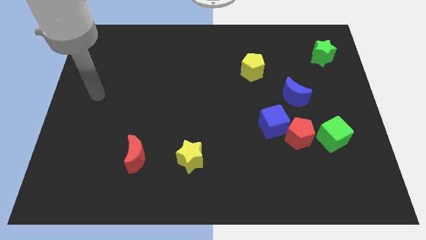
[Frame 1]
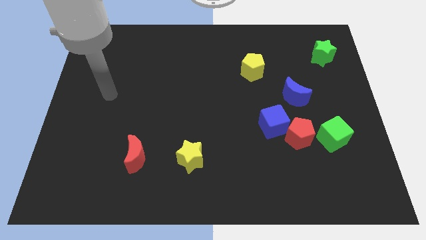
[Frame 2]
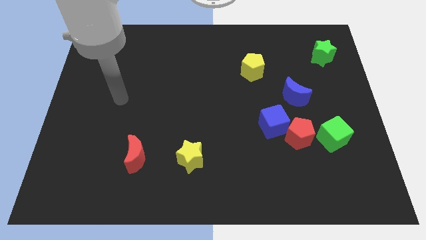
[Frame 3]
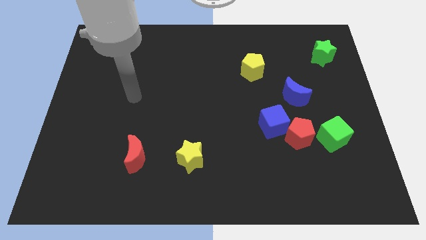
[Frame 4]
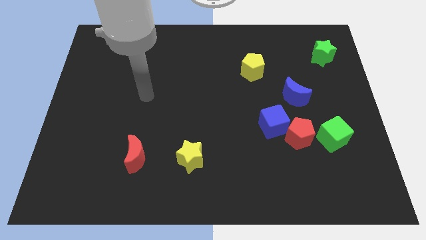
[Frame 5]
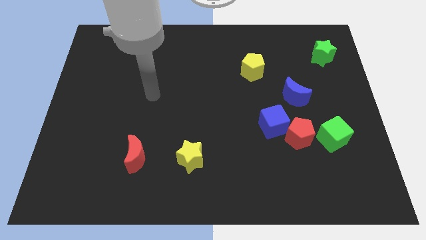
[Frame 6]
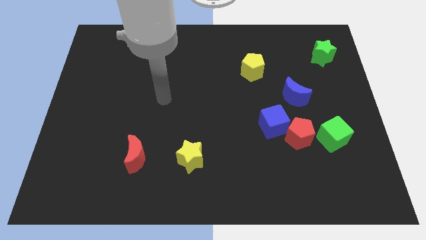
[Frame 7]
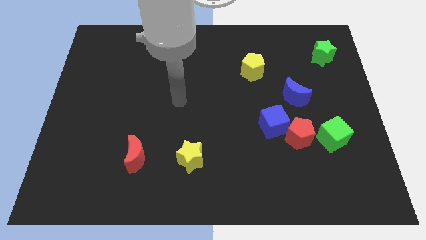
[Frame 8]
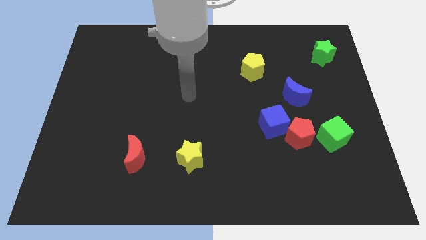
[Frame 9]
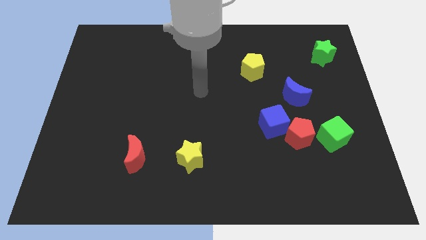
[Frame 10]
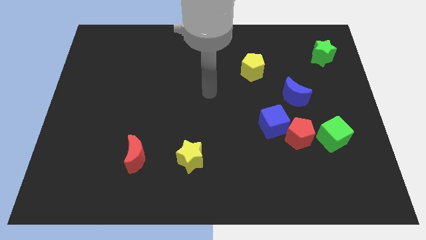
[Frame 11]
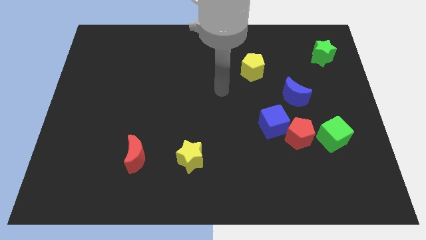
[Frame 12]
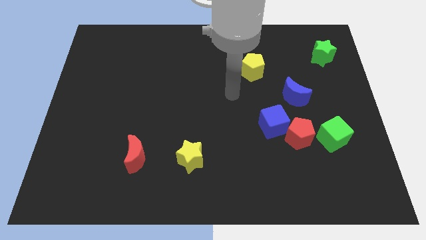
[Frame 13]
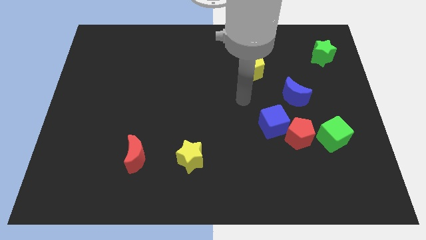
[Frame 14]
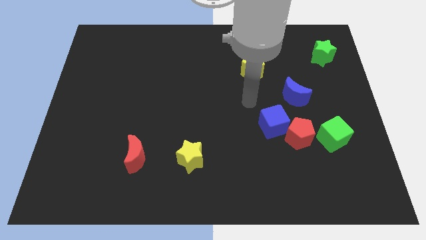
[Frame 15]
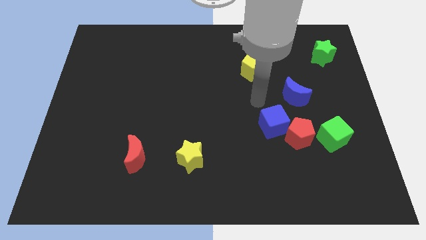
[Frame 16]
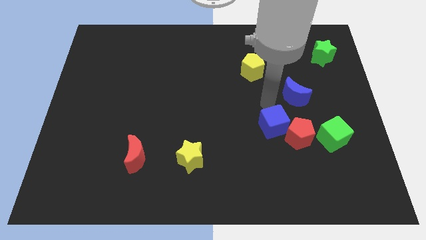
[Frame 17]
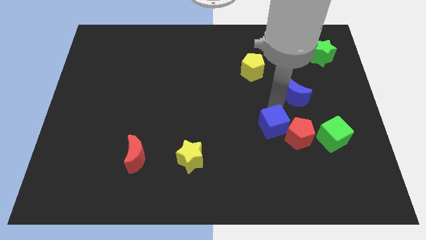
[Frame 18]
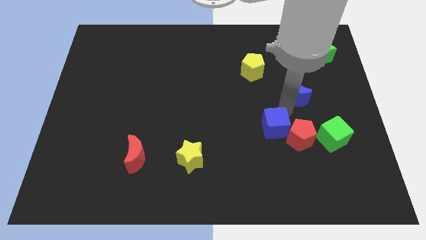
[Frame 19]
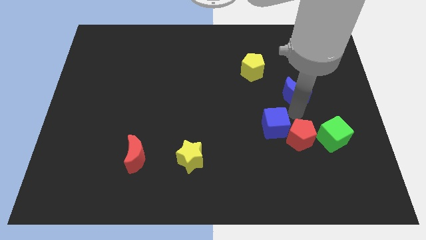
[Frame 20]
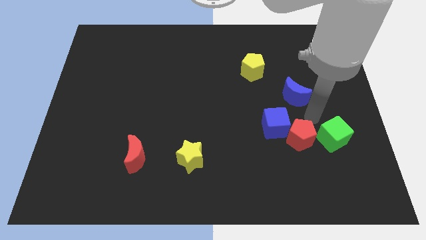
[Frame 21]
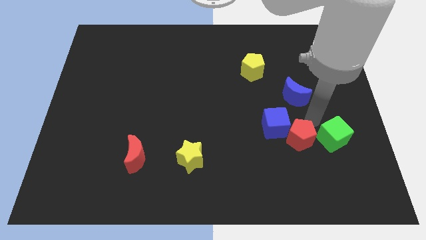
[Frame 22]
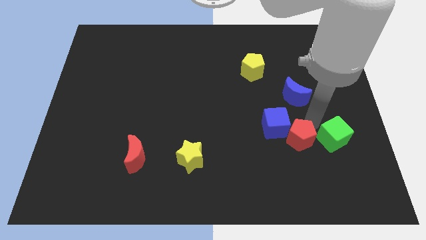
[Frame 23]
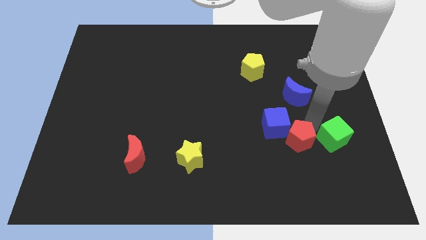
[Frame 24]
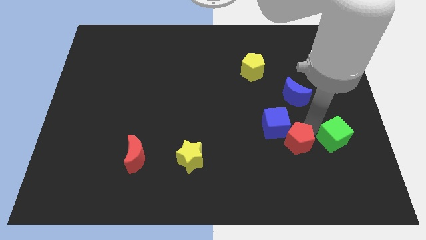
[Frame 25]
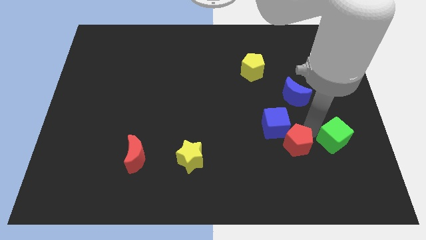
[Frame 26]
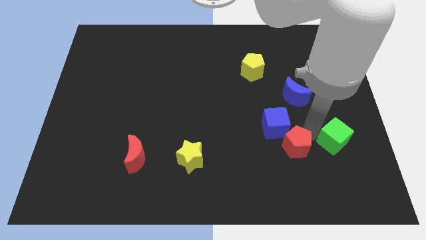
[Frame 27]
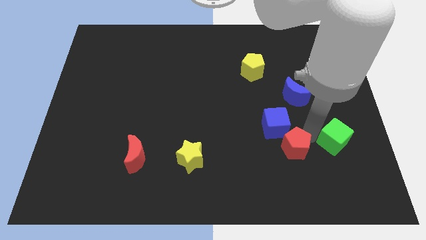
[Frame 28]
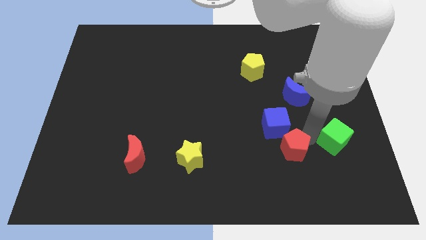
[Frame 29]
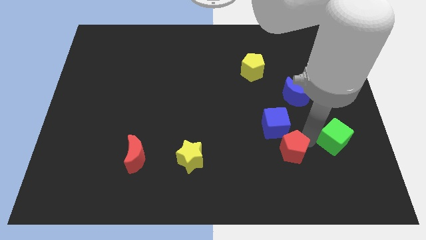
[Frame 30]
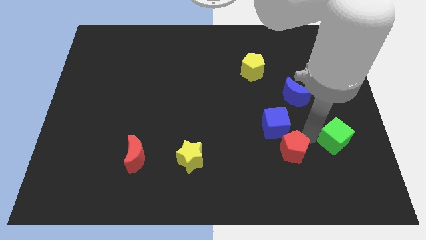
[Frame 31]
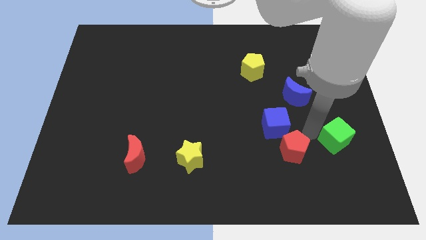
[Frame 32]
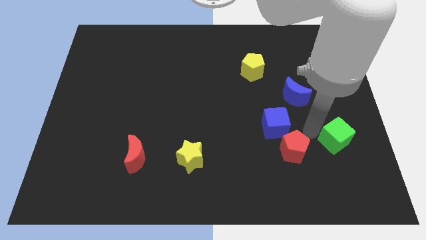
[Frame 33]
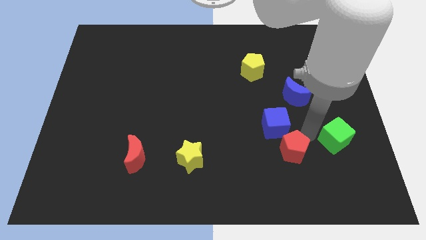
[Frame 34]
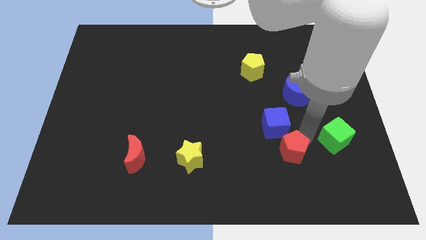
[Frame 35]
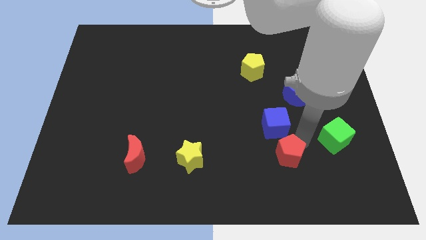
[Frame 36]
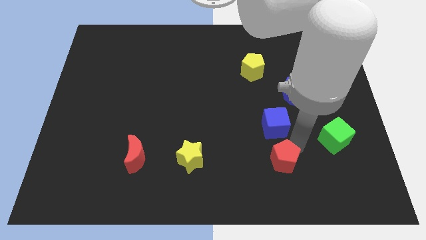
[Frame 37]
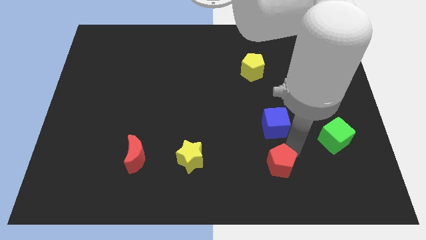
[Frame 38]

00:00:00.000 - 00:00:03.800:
move the red pentagon away from the blue cube and green cube

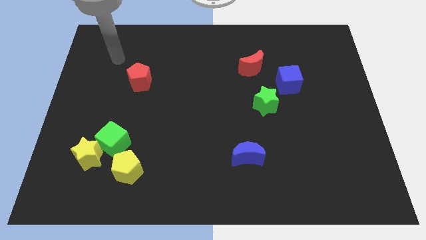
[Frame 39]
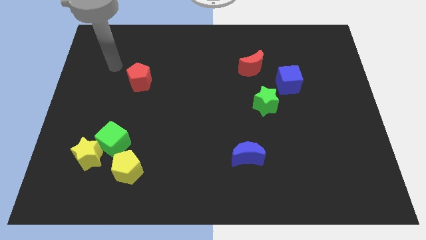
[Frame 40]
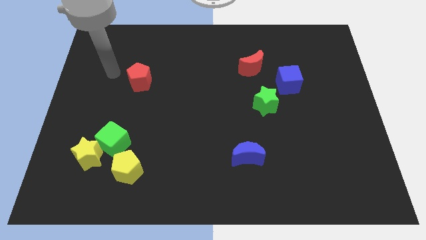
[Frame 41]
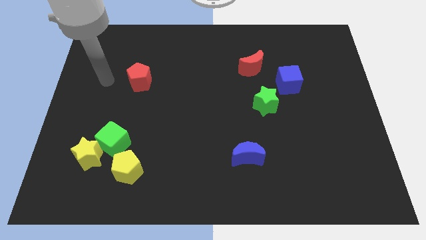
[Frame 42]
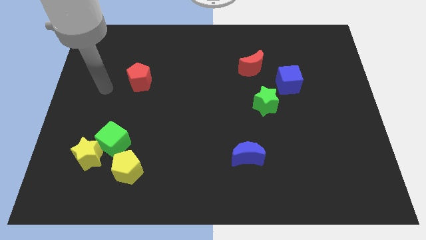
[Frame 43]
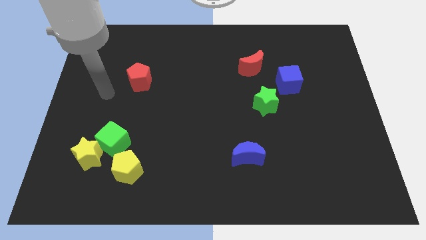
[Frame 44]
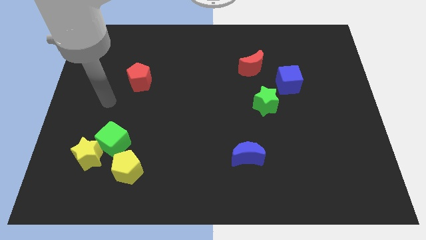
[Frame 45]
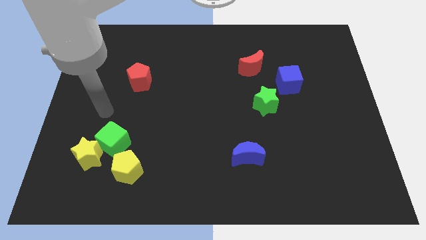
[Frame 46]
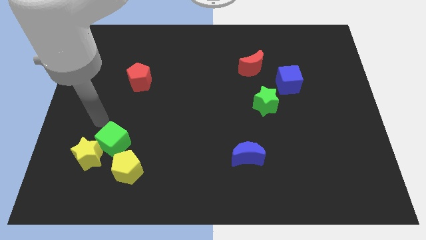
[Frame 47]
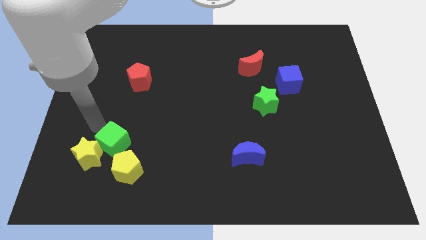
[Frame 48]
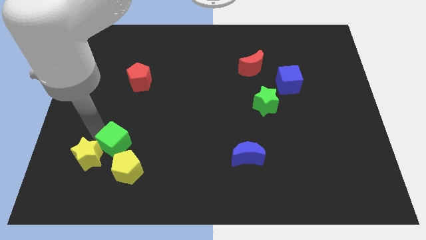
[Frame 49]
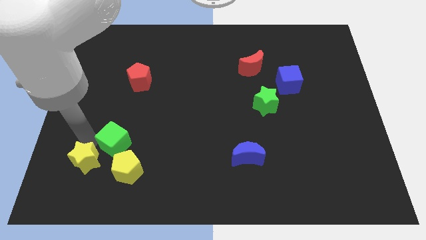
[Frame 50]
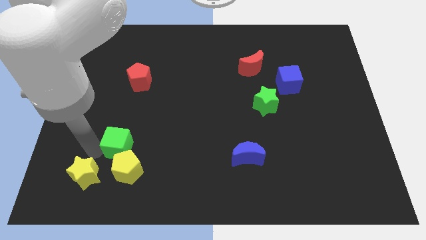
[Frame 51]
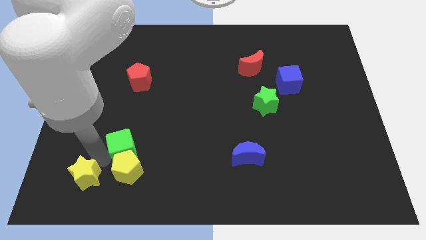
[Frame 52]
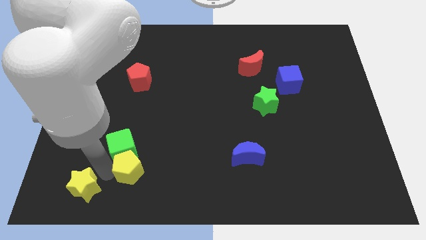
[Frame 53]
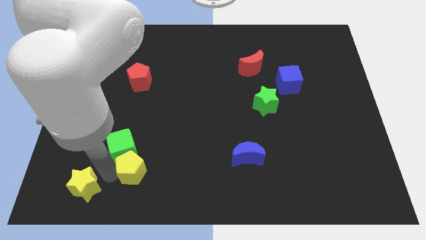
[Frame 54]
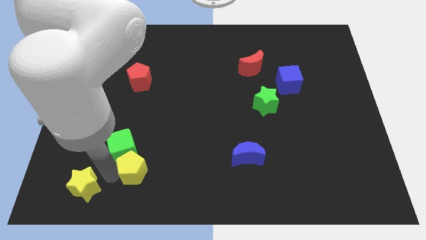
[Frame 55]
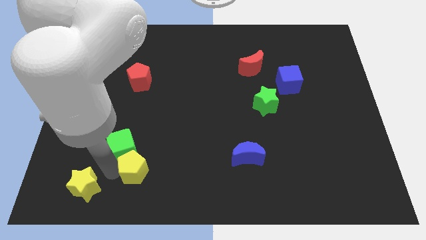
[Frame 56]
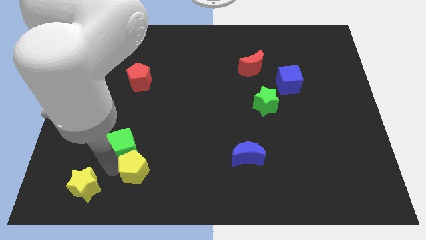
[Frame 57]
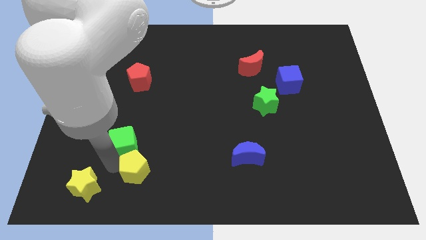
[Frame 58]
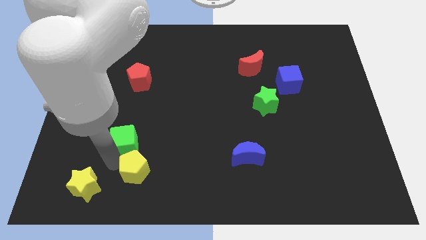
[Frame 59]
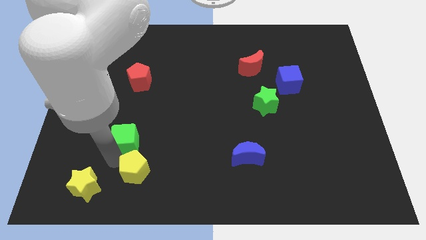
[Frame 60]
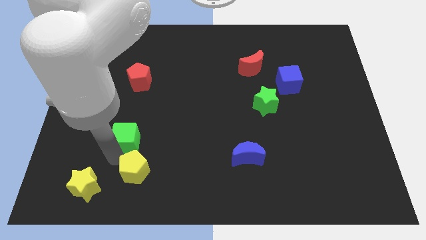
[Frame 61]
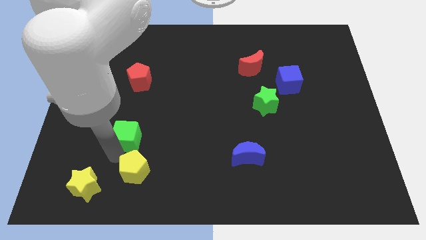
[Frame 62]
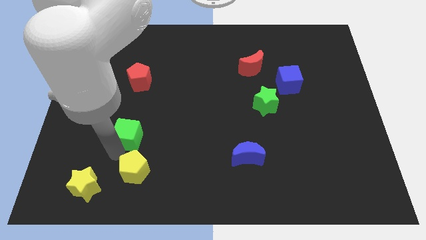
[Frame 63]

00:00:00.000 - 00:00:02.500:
move the green cube away from the yellow star and yellow pentagon

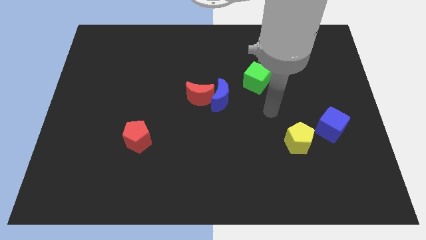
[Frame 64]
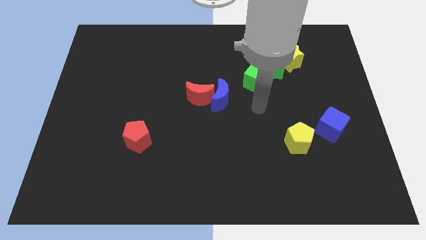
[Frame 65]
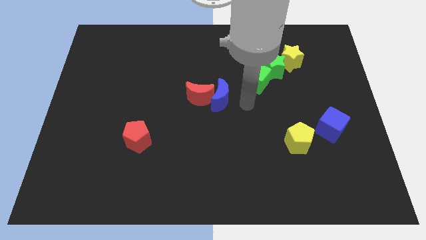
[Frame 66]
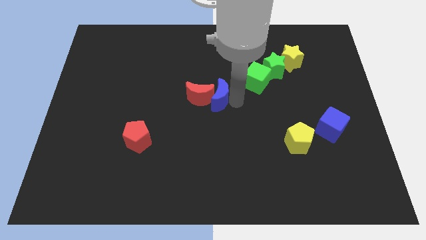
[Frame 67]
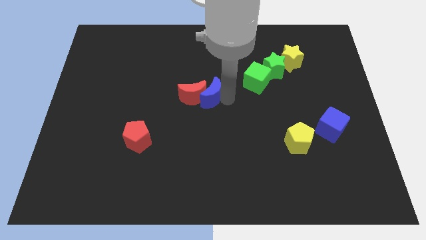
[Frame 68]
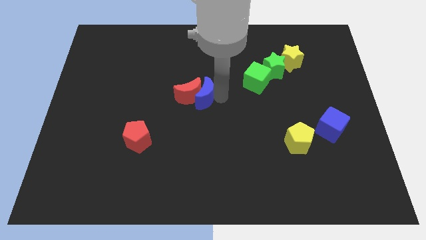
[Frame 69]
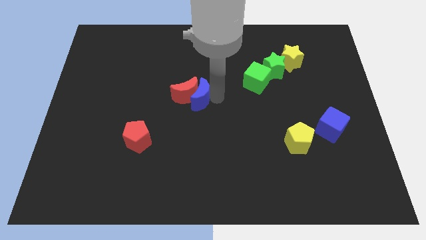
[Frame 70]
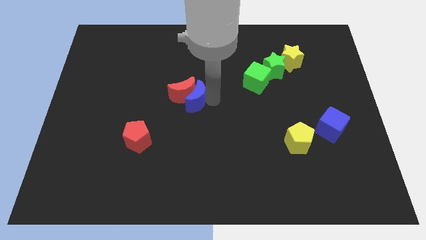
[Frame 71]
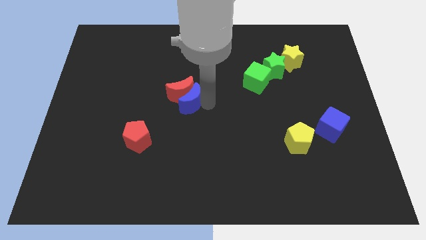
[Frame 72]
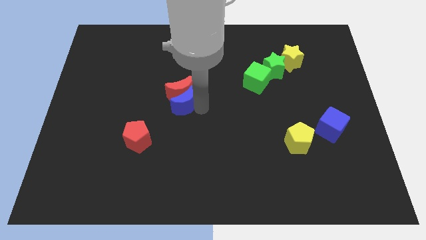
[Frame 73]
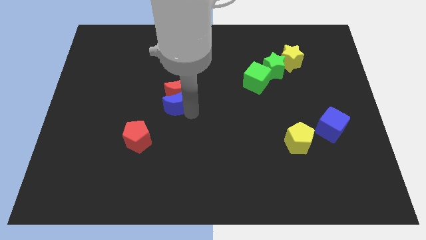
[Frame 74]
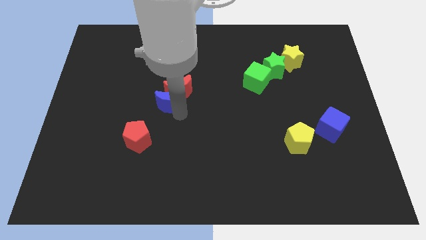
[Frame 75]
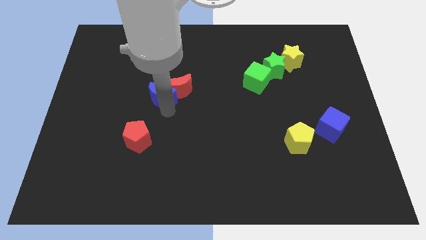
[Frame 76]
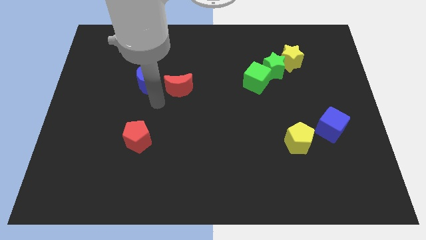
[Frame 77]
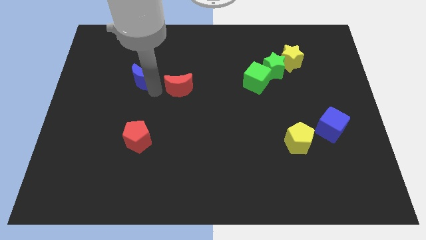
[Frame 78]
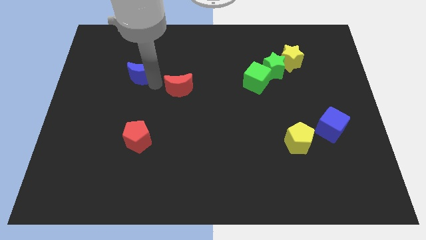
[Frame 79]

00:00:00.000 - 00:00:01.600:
pull the red moon apart from the blue moon

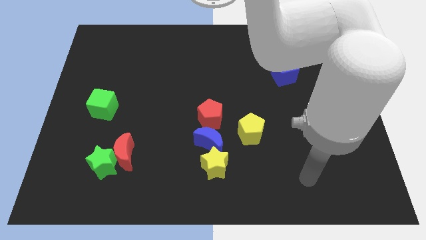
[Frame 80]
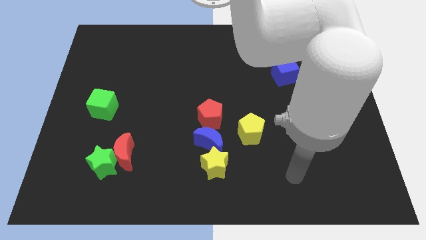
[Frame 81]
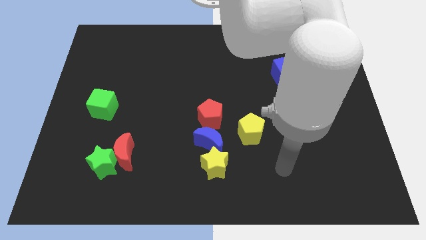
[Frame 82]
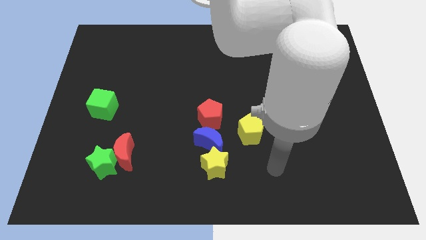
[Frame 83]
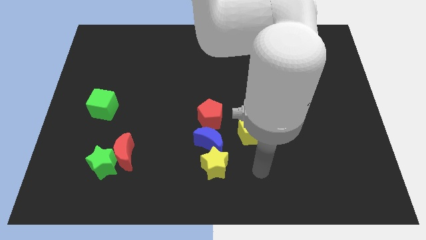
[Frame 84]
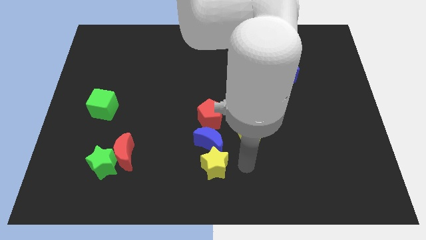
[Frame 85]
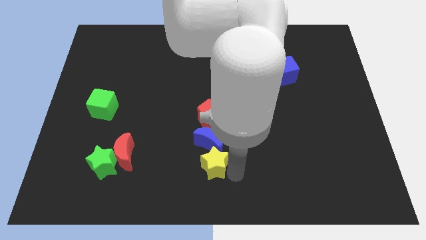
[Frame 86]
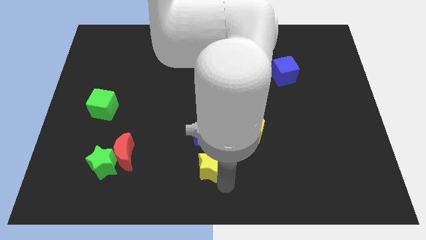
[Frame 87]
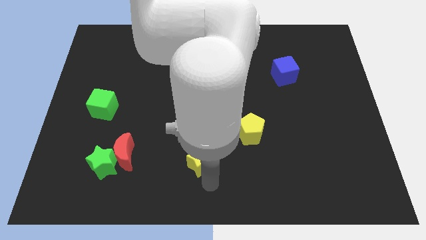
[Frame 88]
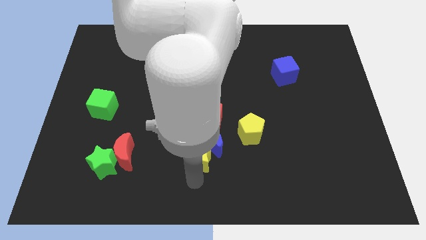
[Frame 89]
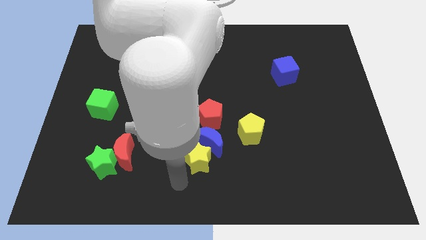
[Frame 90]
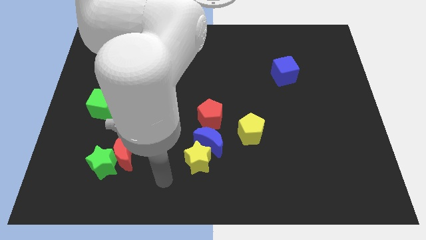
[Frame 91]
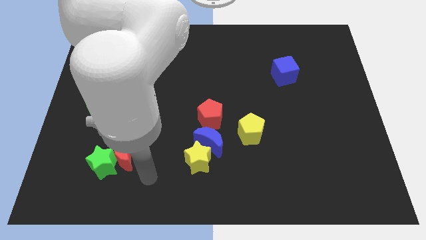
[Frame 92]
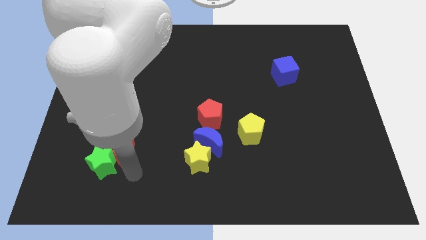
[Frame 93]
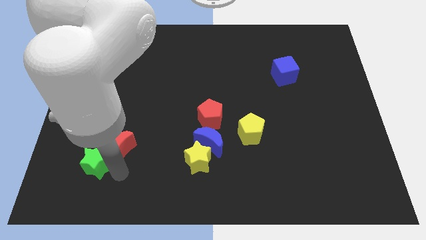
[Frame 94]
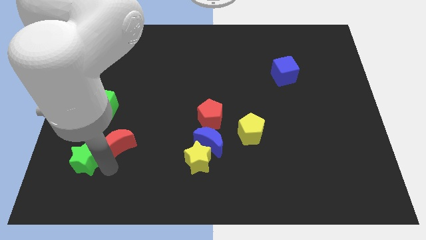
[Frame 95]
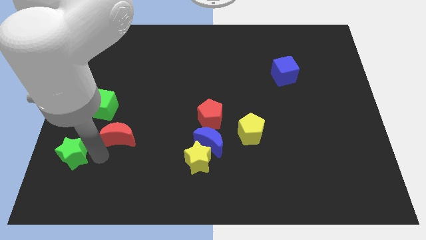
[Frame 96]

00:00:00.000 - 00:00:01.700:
separate the red moon from the green star
